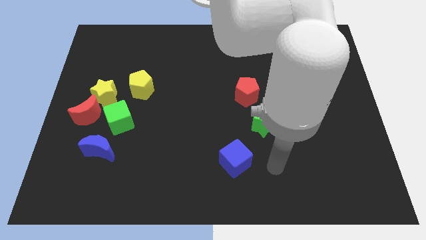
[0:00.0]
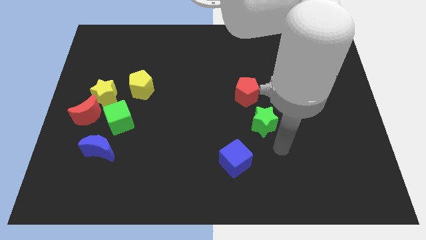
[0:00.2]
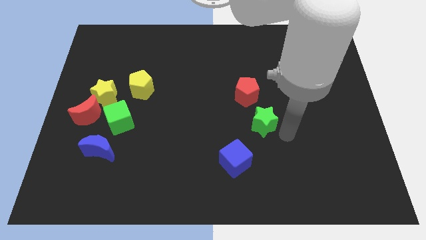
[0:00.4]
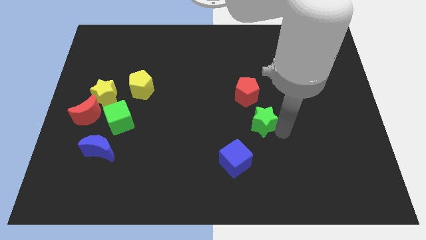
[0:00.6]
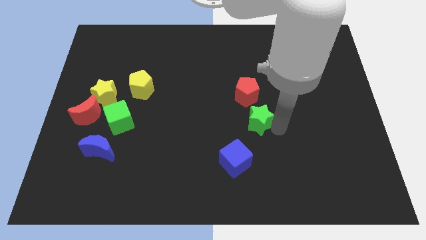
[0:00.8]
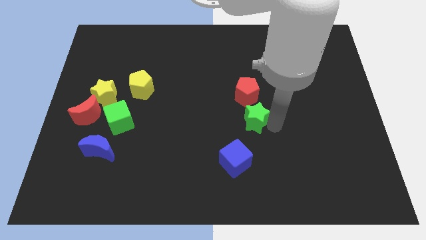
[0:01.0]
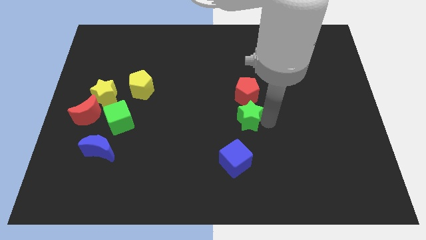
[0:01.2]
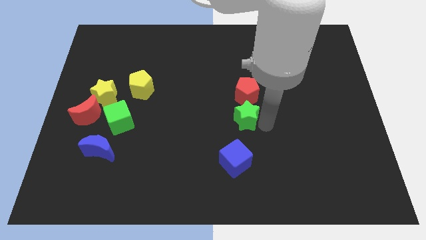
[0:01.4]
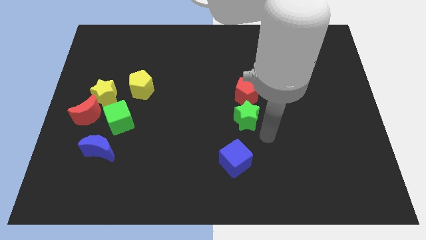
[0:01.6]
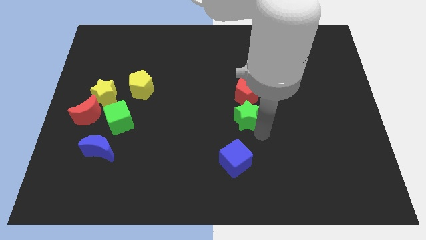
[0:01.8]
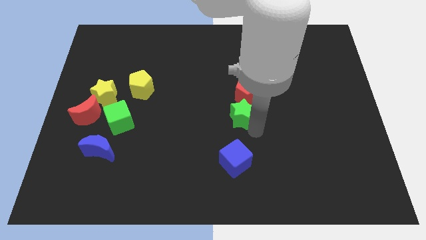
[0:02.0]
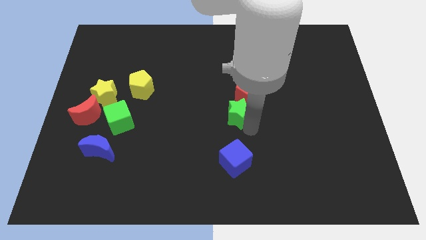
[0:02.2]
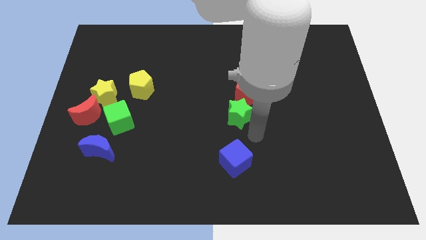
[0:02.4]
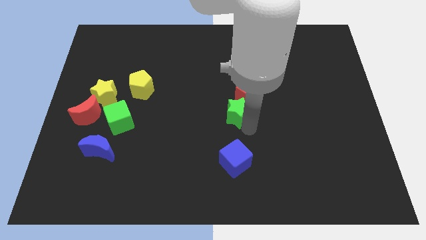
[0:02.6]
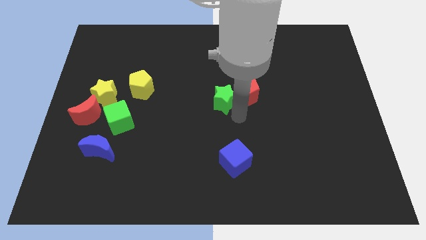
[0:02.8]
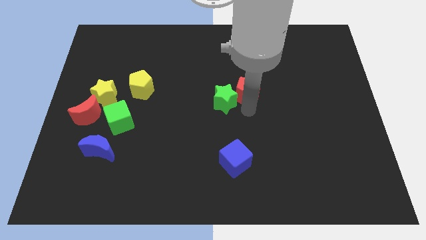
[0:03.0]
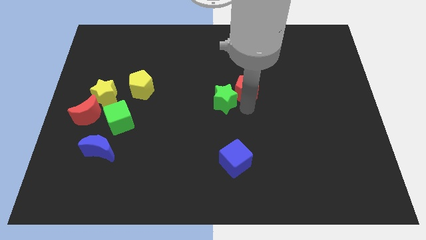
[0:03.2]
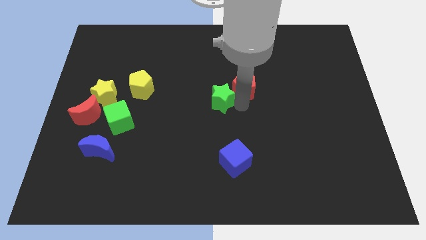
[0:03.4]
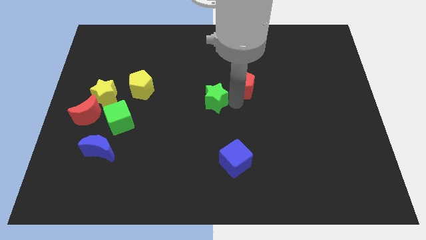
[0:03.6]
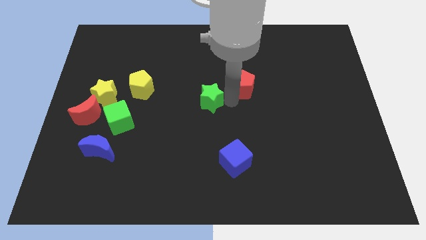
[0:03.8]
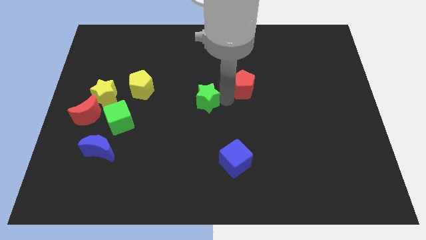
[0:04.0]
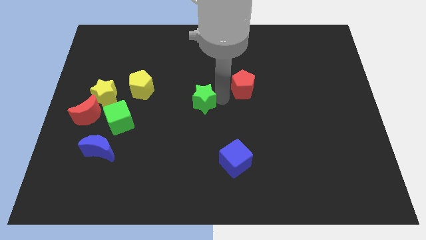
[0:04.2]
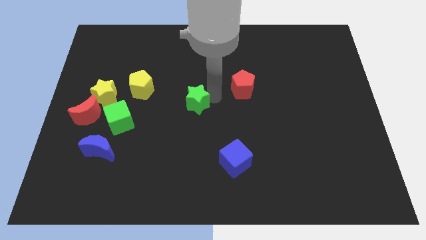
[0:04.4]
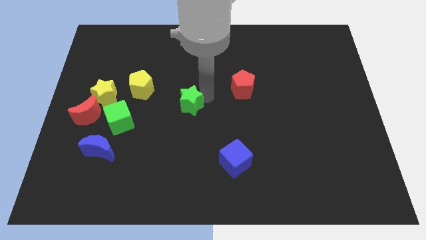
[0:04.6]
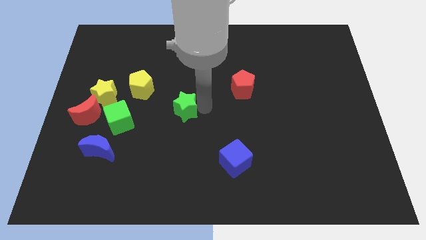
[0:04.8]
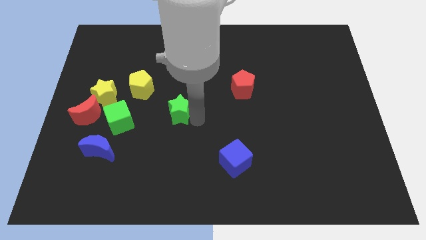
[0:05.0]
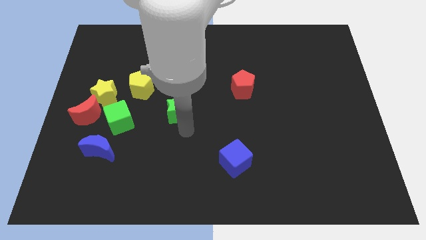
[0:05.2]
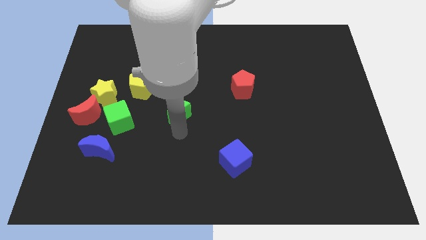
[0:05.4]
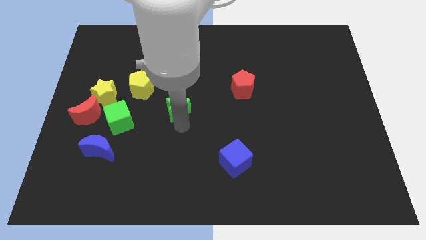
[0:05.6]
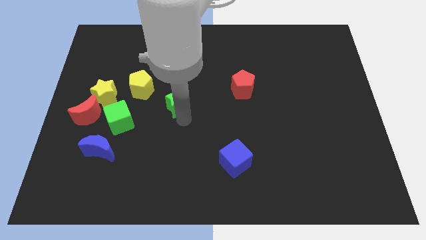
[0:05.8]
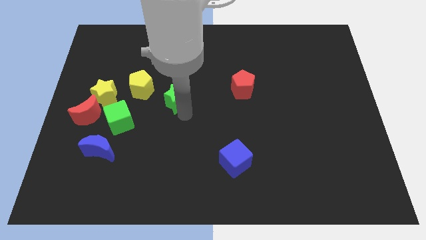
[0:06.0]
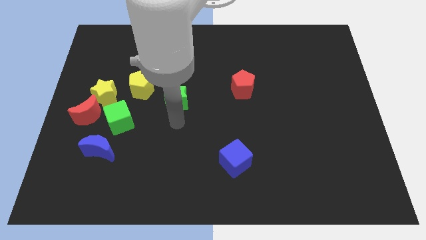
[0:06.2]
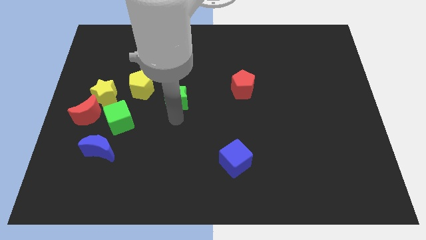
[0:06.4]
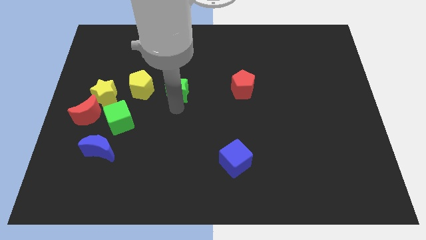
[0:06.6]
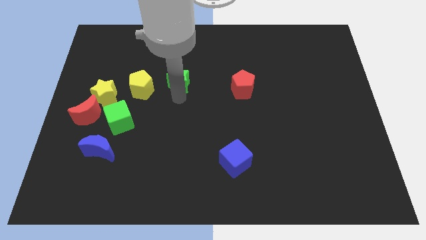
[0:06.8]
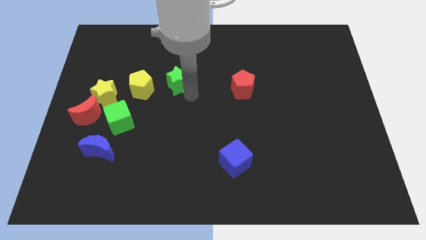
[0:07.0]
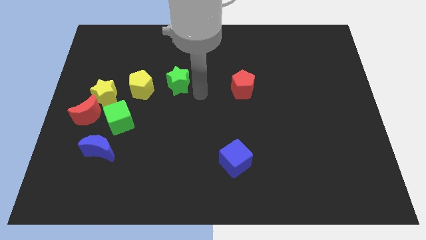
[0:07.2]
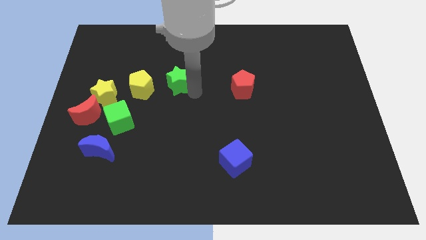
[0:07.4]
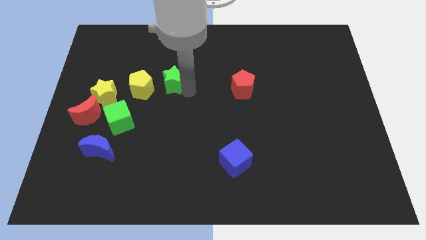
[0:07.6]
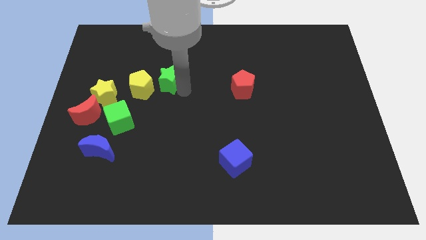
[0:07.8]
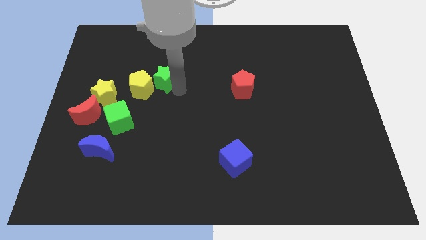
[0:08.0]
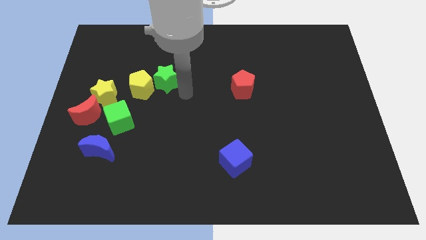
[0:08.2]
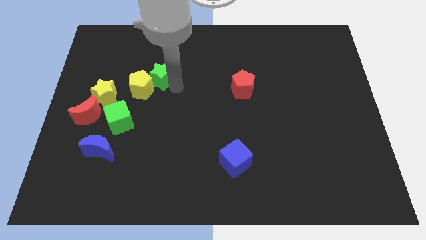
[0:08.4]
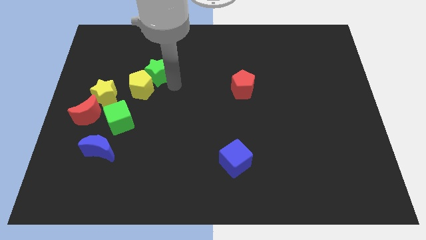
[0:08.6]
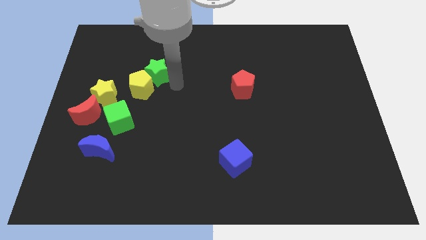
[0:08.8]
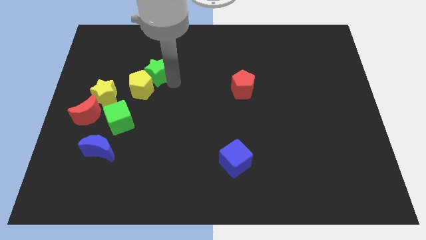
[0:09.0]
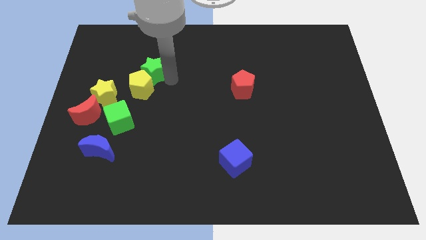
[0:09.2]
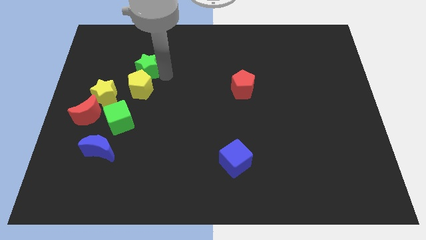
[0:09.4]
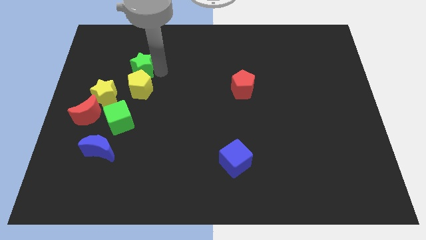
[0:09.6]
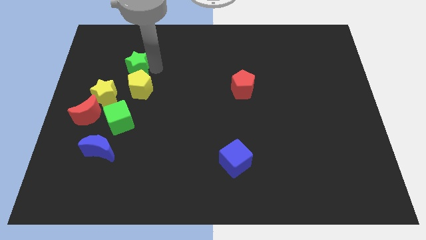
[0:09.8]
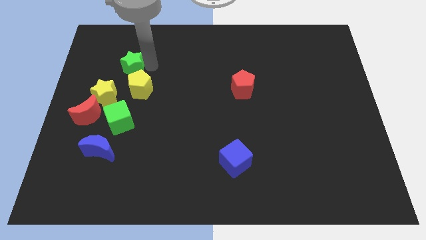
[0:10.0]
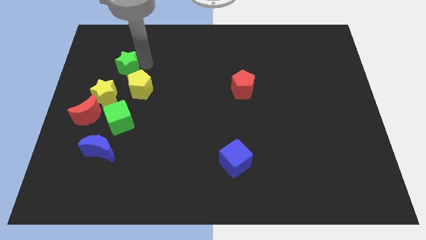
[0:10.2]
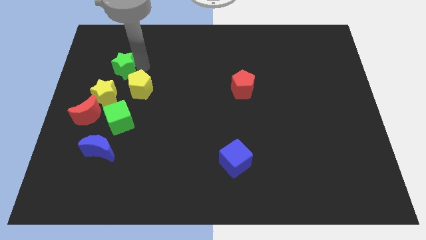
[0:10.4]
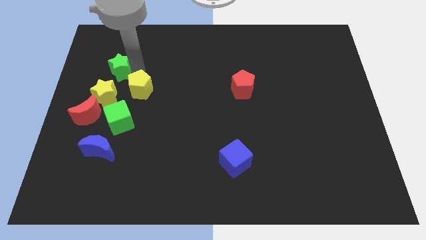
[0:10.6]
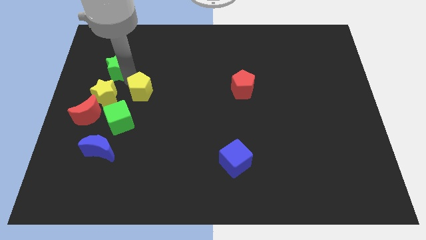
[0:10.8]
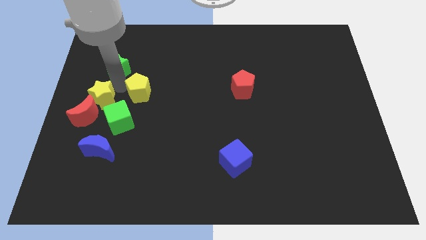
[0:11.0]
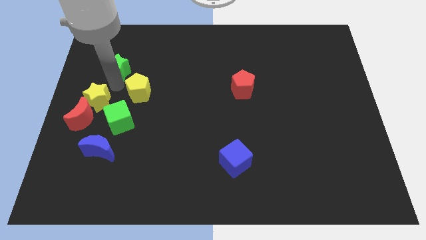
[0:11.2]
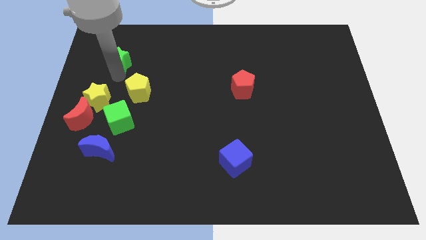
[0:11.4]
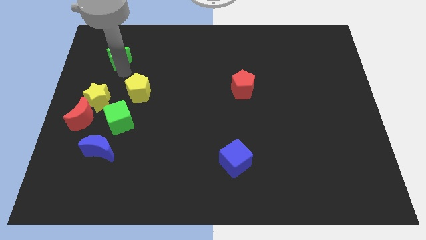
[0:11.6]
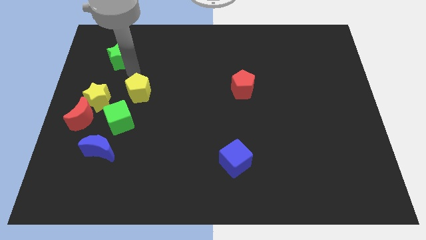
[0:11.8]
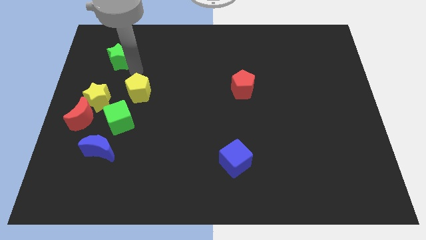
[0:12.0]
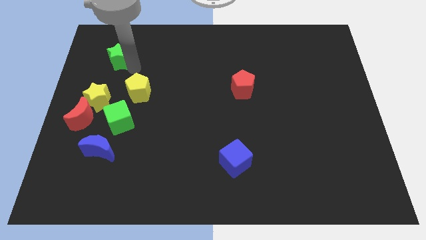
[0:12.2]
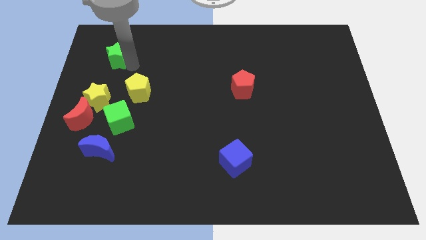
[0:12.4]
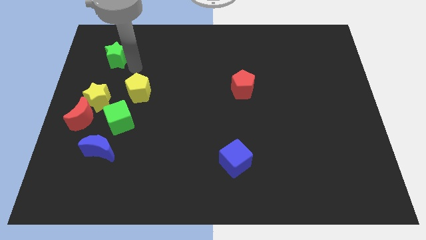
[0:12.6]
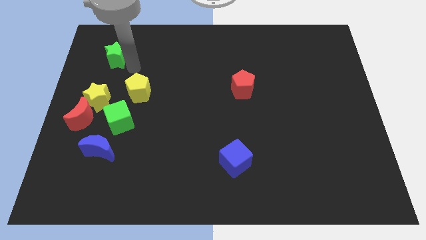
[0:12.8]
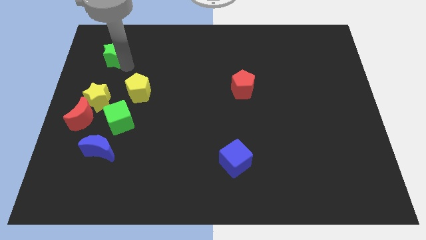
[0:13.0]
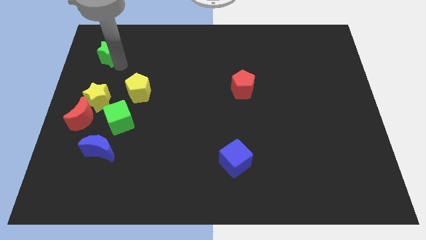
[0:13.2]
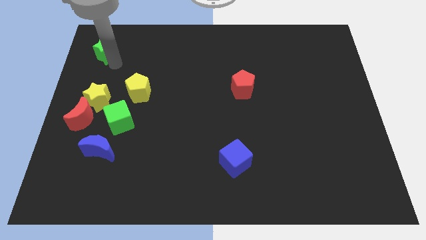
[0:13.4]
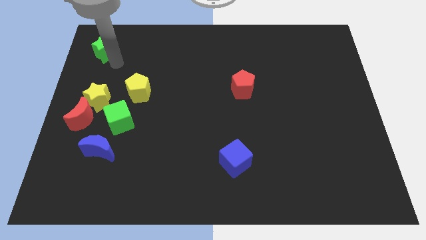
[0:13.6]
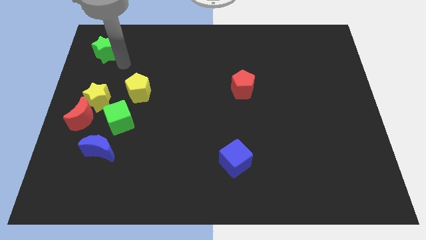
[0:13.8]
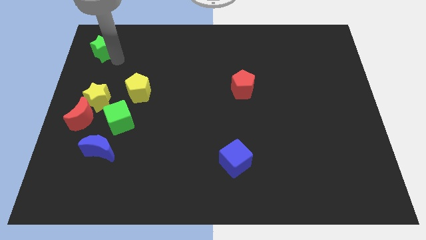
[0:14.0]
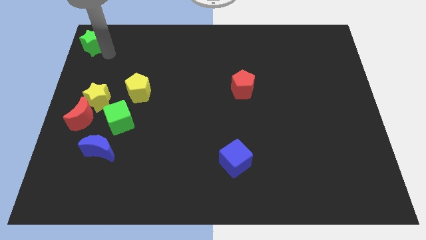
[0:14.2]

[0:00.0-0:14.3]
push the green star to the top left of the board
